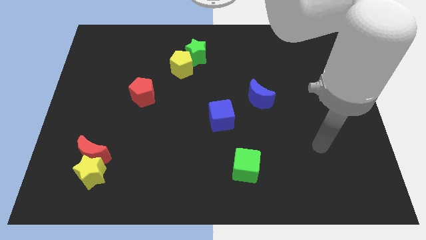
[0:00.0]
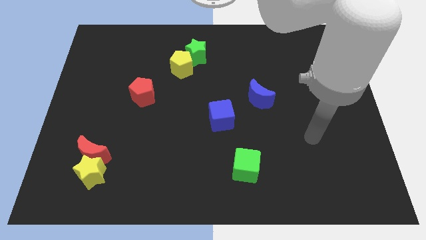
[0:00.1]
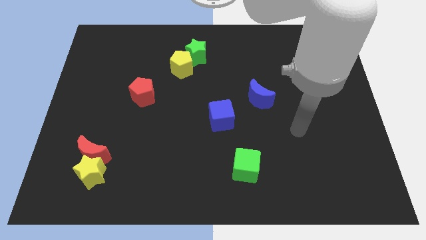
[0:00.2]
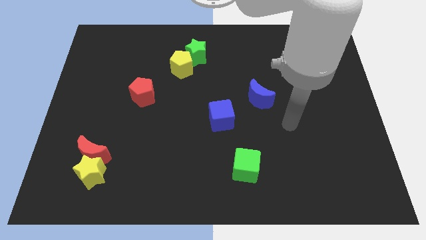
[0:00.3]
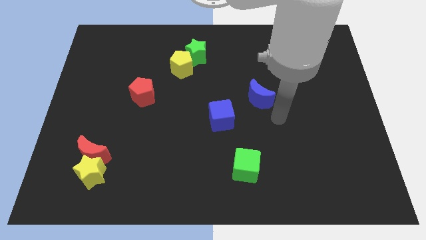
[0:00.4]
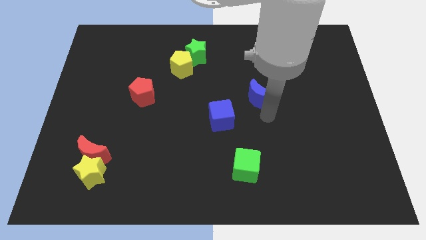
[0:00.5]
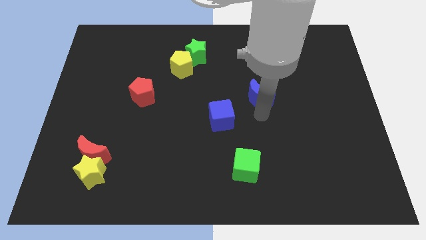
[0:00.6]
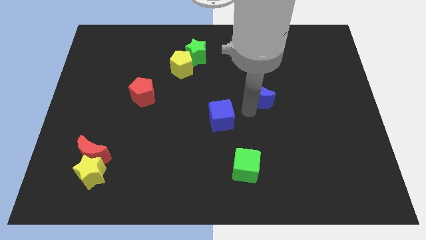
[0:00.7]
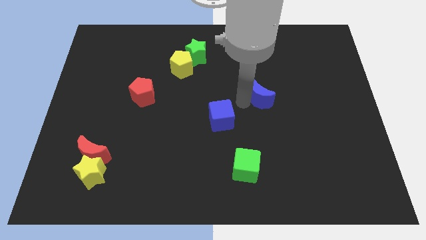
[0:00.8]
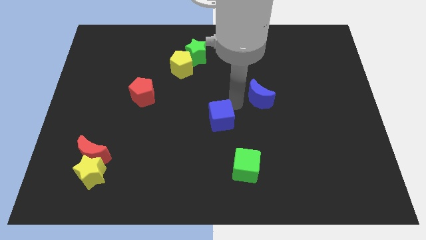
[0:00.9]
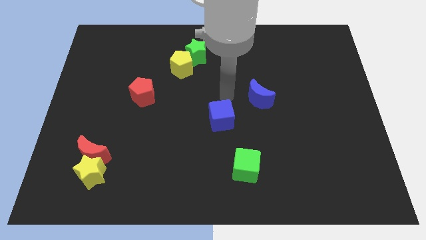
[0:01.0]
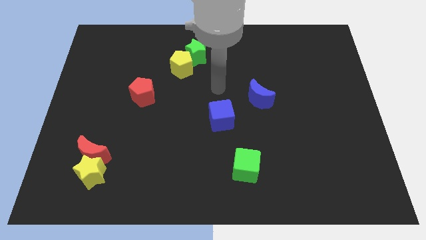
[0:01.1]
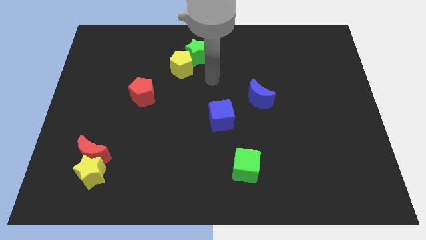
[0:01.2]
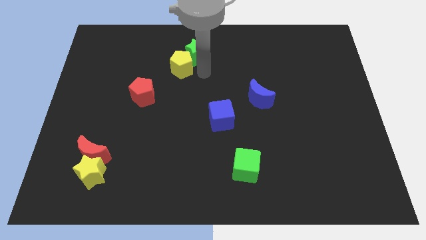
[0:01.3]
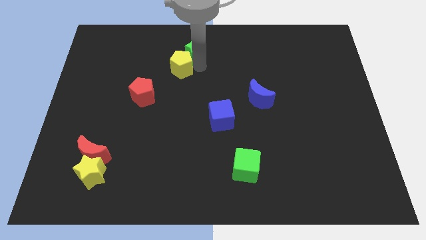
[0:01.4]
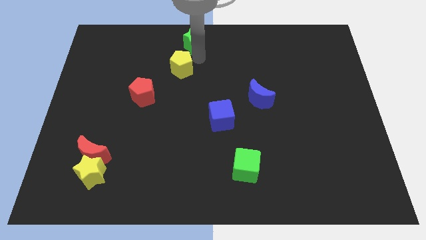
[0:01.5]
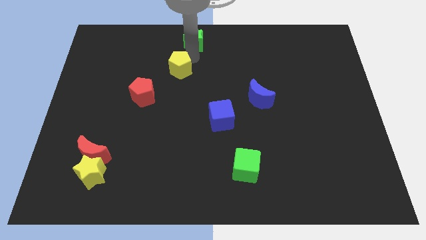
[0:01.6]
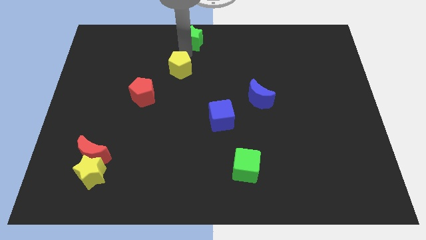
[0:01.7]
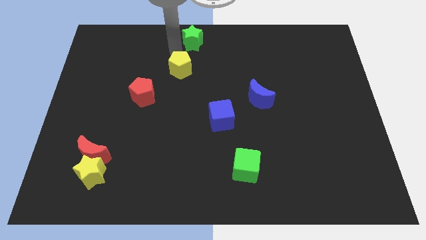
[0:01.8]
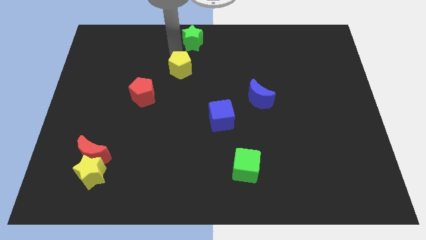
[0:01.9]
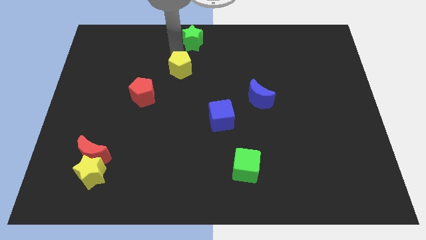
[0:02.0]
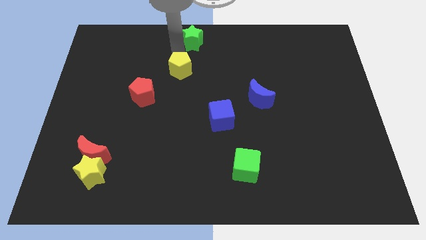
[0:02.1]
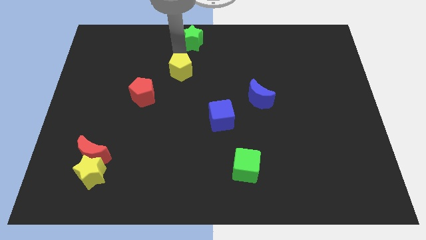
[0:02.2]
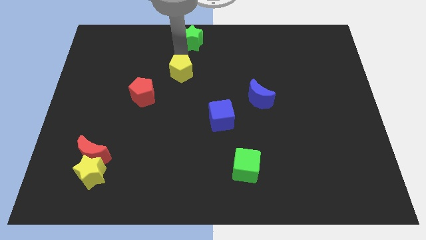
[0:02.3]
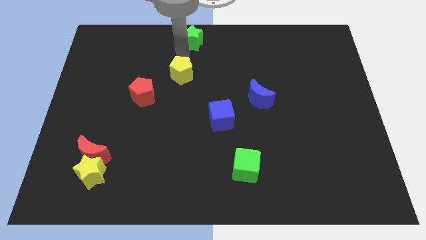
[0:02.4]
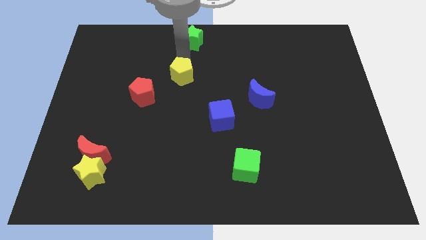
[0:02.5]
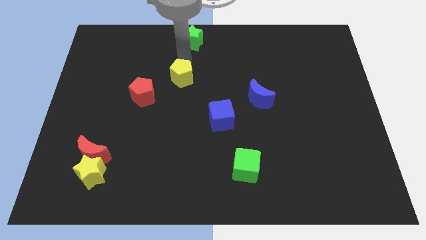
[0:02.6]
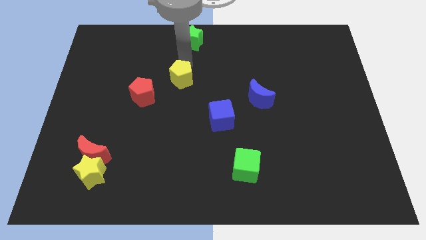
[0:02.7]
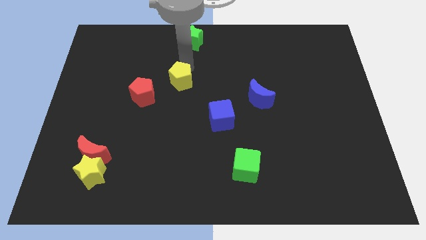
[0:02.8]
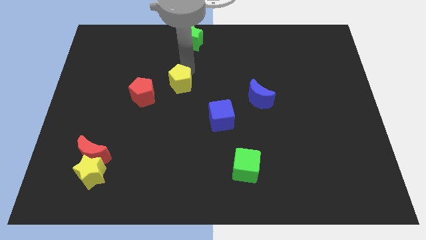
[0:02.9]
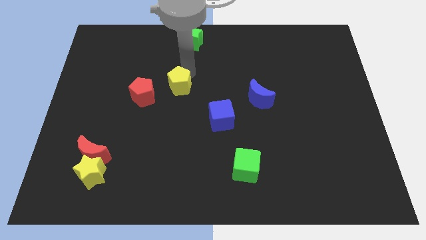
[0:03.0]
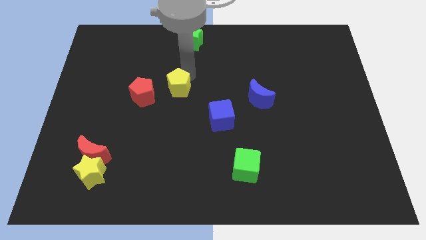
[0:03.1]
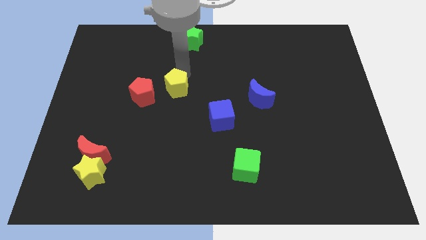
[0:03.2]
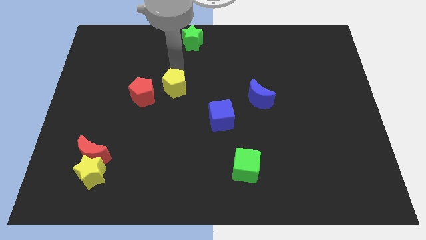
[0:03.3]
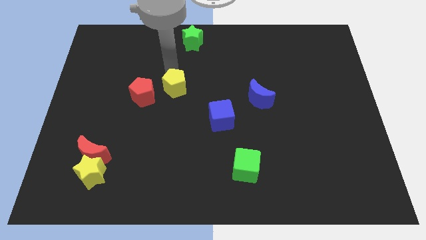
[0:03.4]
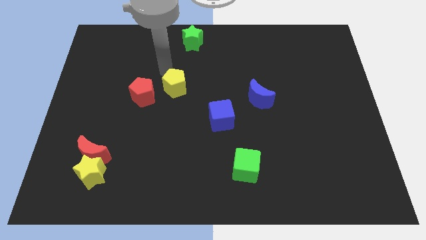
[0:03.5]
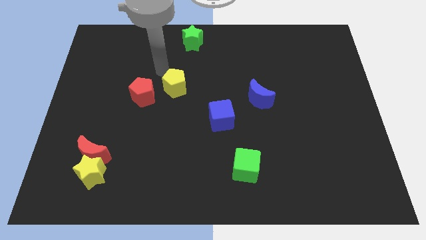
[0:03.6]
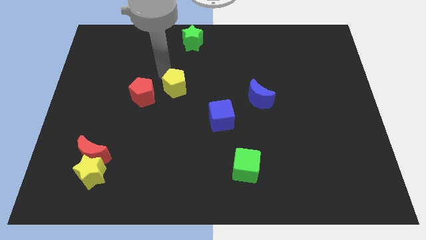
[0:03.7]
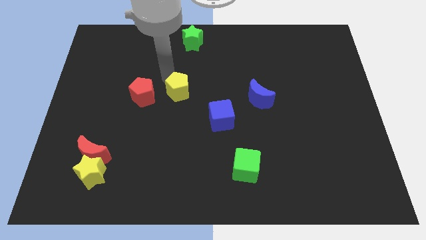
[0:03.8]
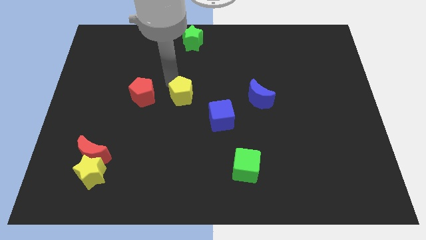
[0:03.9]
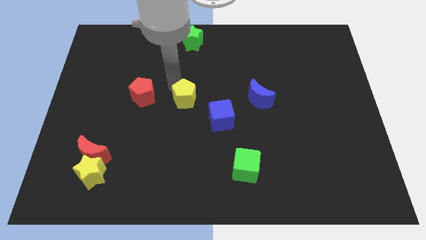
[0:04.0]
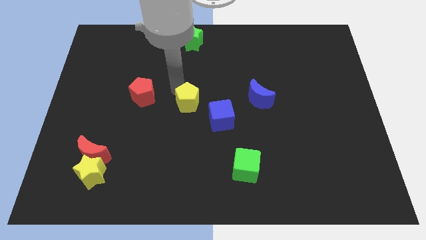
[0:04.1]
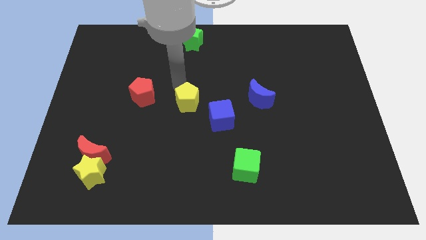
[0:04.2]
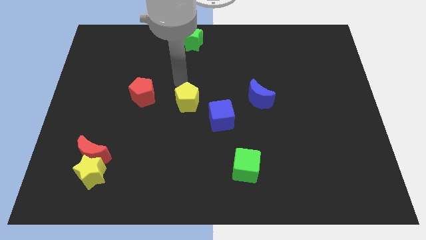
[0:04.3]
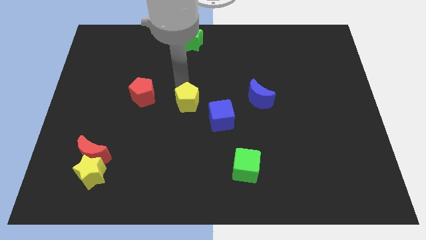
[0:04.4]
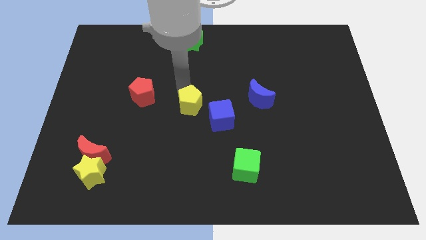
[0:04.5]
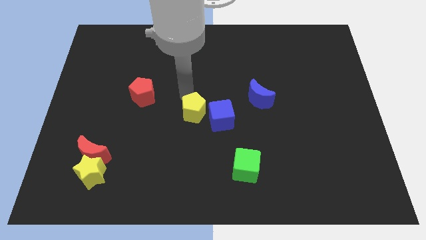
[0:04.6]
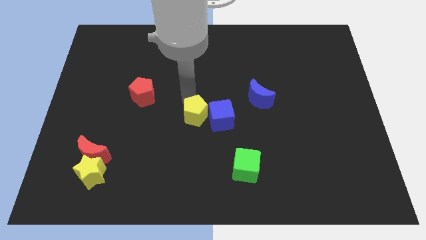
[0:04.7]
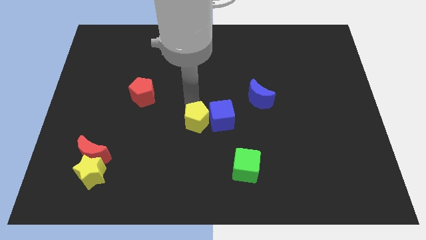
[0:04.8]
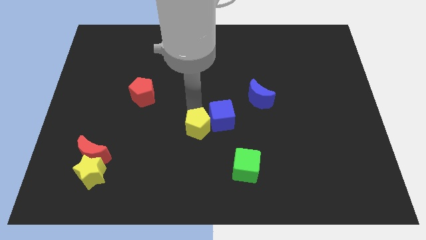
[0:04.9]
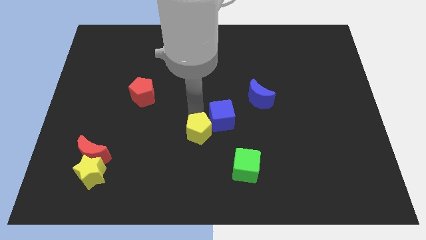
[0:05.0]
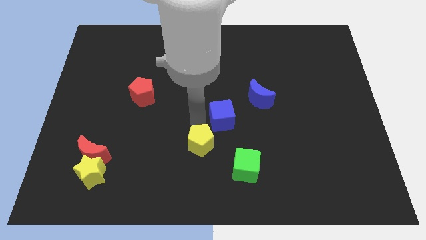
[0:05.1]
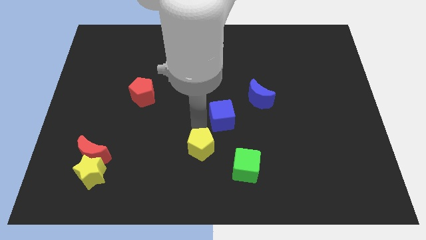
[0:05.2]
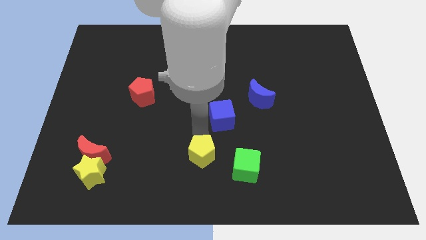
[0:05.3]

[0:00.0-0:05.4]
put the yellow pentagon to the left of the green cube

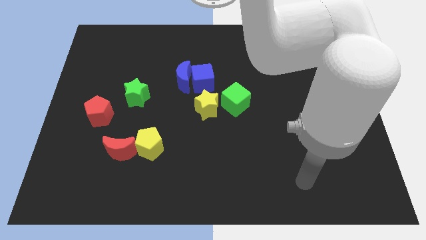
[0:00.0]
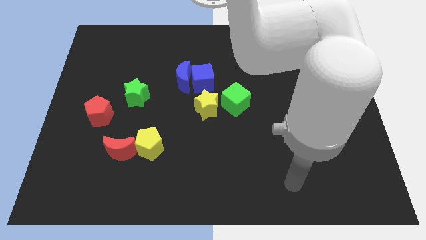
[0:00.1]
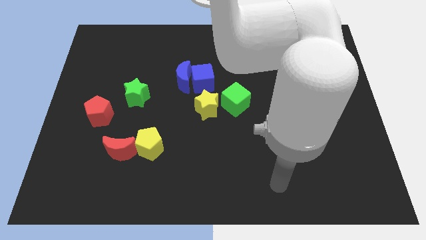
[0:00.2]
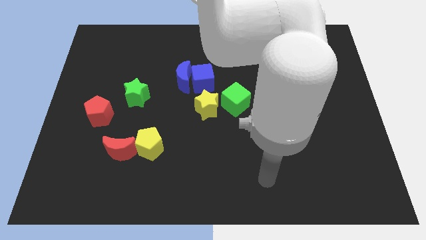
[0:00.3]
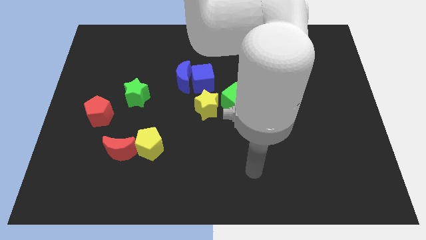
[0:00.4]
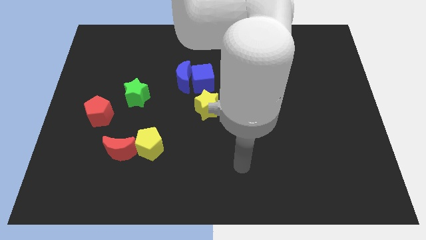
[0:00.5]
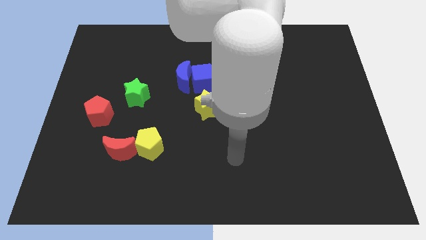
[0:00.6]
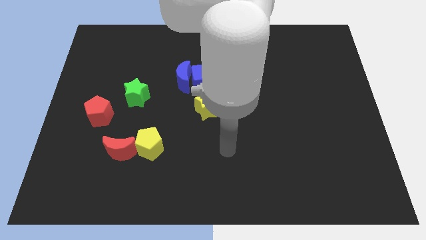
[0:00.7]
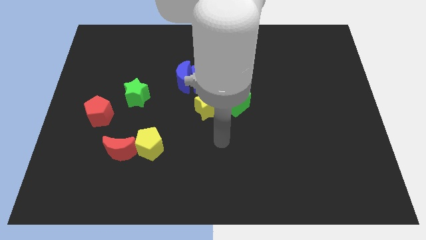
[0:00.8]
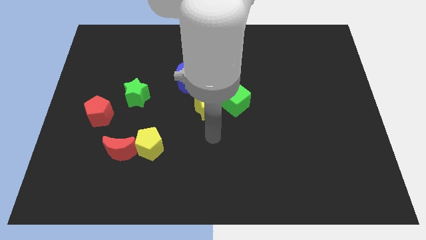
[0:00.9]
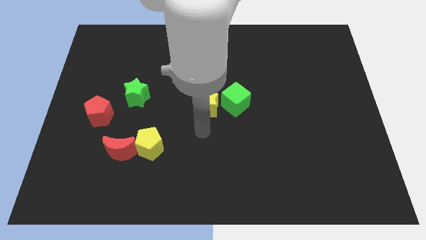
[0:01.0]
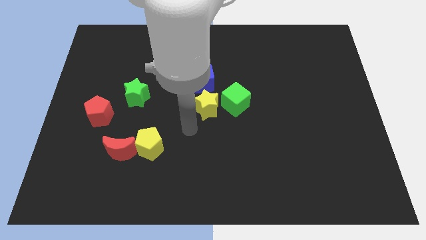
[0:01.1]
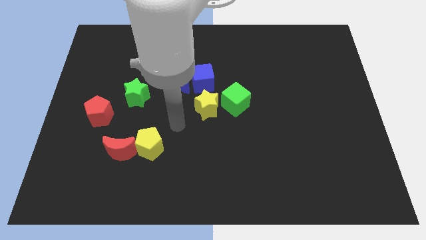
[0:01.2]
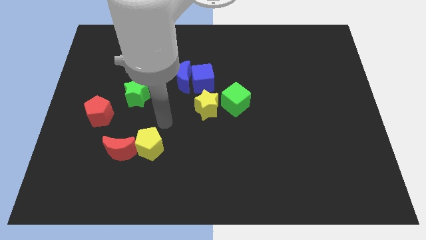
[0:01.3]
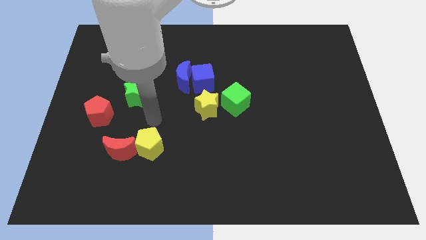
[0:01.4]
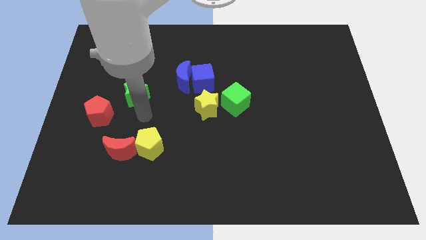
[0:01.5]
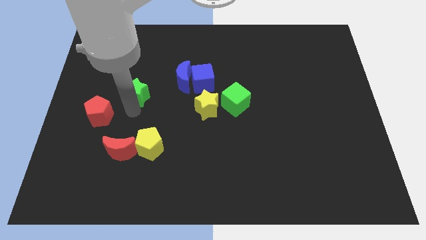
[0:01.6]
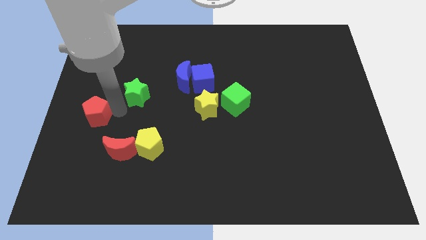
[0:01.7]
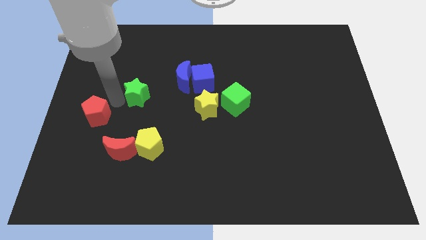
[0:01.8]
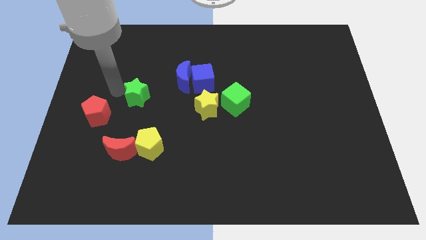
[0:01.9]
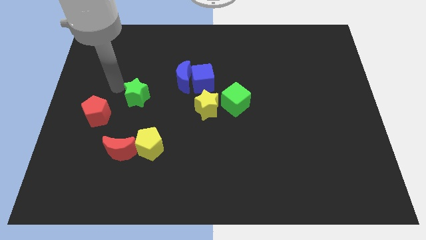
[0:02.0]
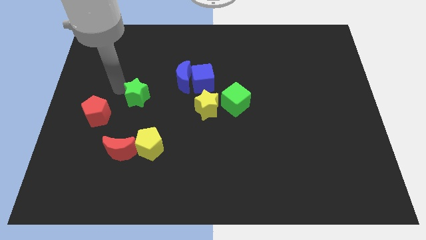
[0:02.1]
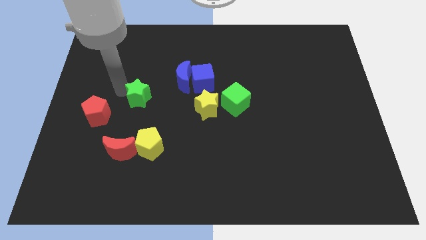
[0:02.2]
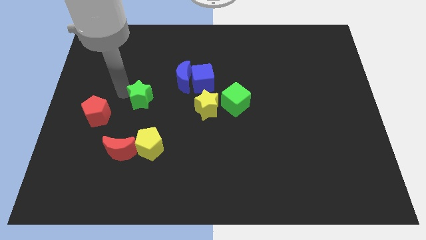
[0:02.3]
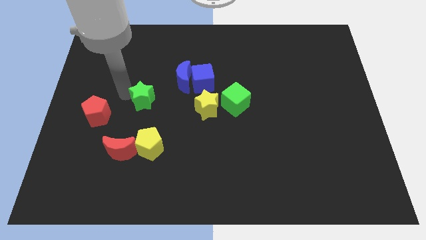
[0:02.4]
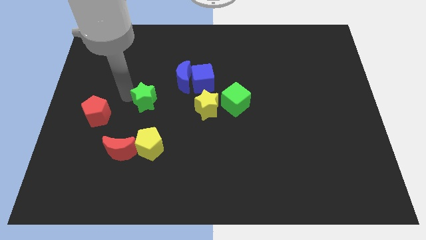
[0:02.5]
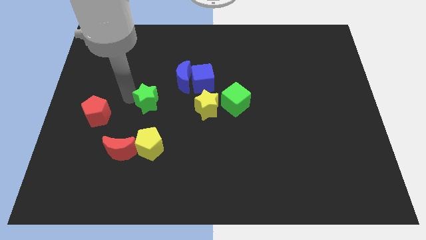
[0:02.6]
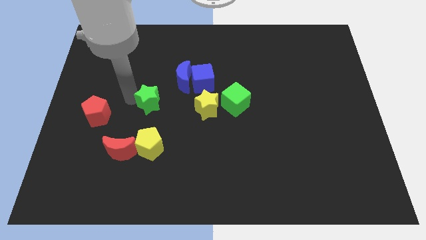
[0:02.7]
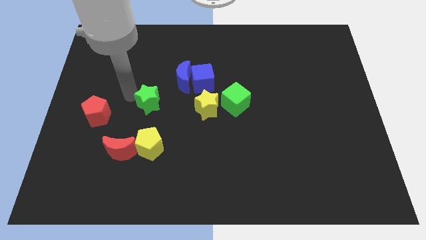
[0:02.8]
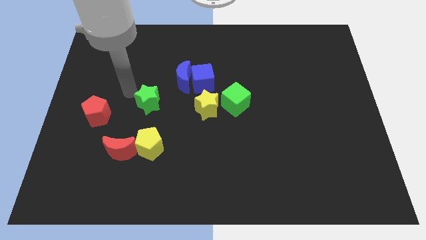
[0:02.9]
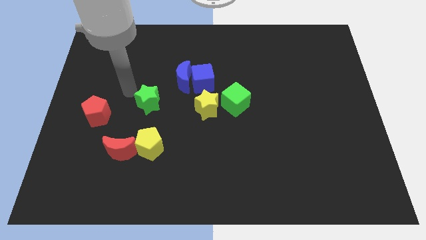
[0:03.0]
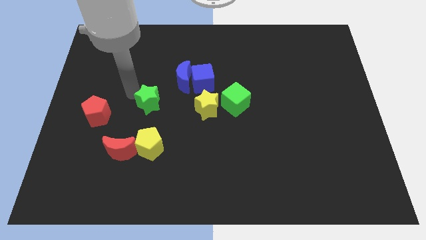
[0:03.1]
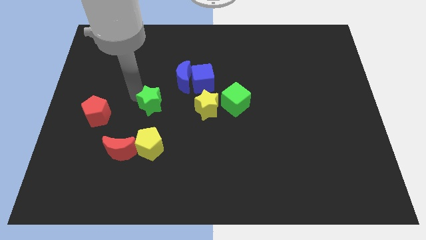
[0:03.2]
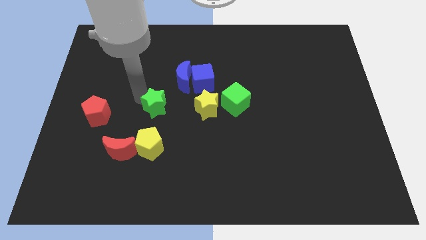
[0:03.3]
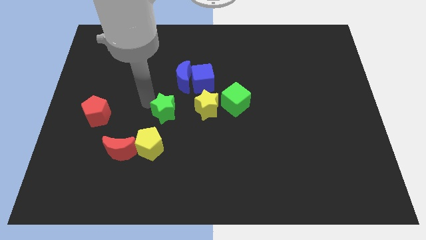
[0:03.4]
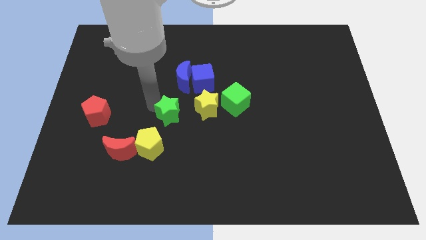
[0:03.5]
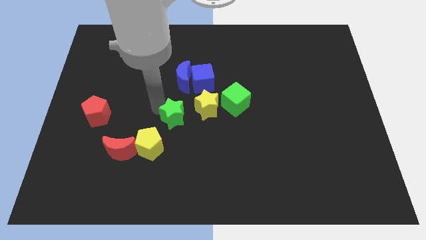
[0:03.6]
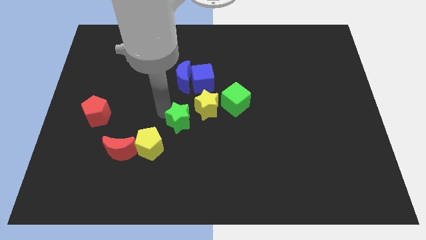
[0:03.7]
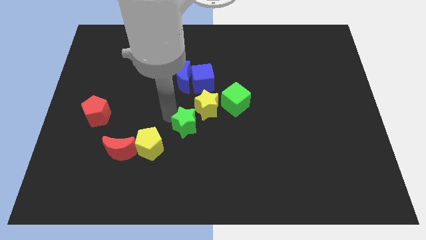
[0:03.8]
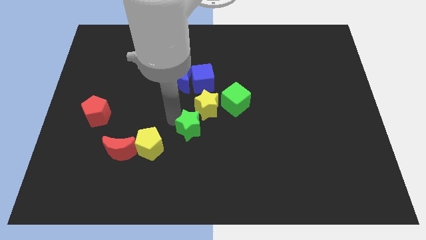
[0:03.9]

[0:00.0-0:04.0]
move the green star to the bottom left of the green cube
